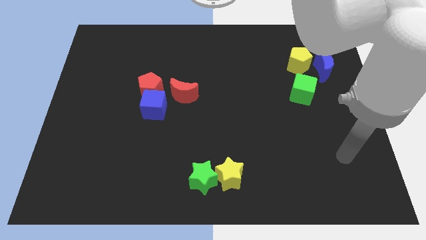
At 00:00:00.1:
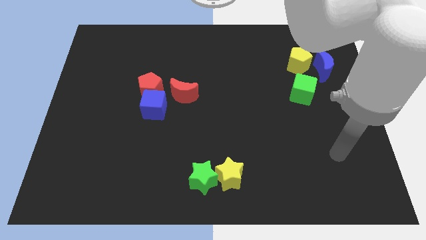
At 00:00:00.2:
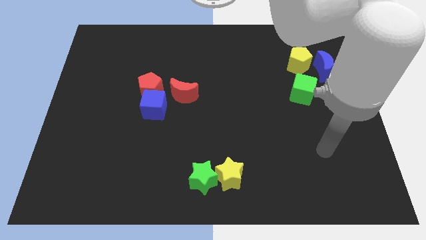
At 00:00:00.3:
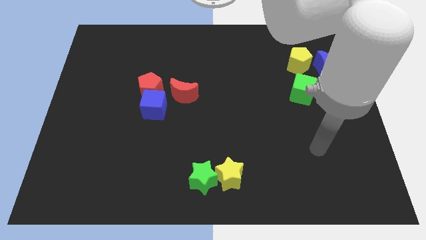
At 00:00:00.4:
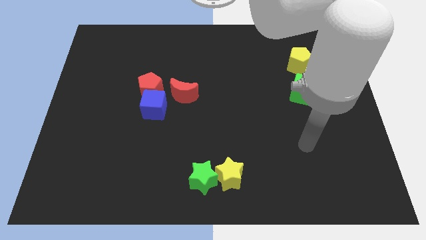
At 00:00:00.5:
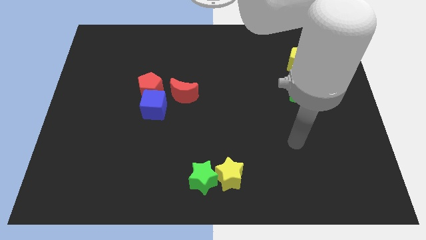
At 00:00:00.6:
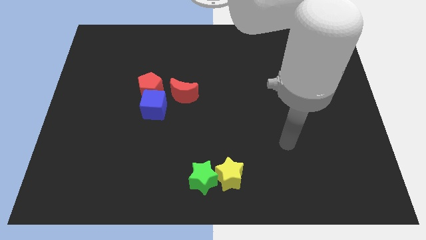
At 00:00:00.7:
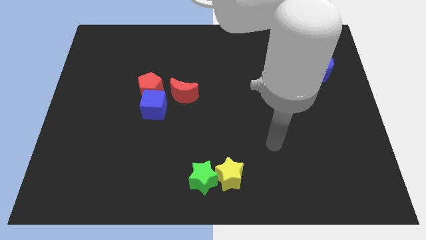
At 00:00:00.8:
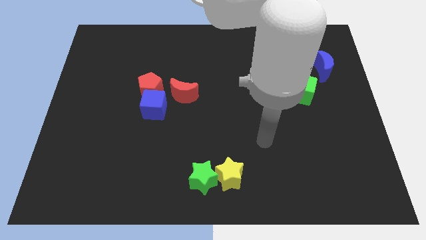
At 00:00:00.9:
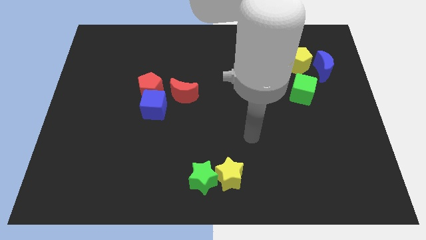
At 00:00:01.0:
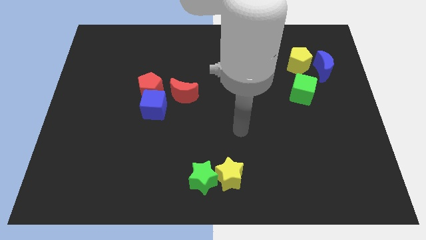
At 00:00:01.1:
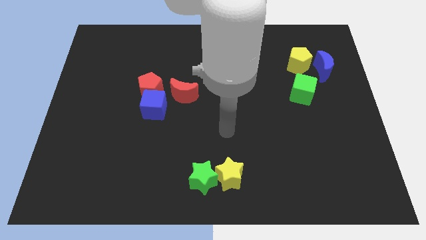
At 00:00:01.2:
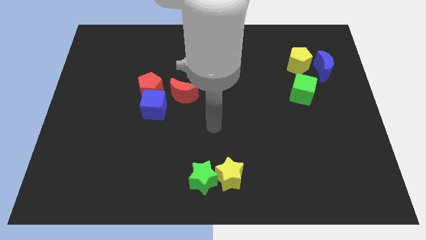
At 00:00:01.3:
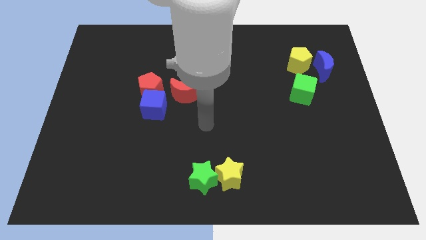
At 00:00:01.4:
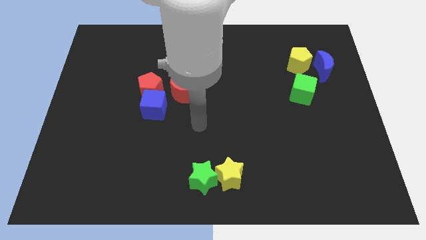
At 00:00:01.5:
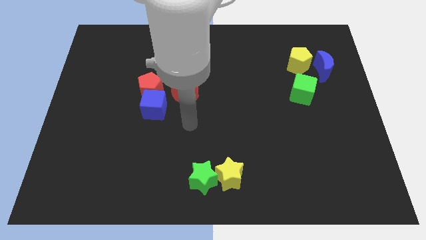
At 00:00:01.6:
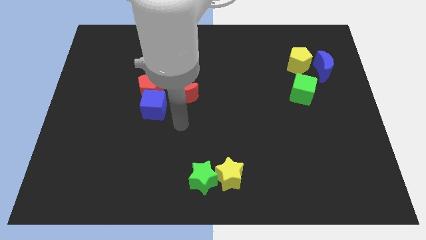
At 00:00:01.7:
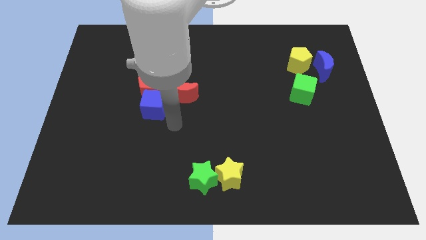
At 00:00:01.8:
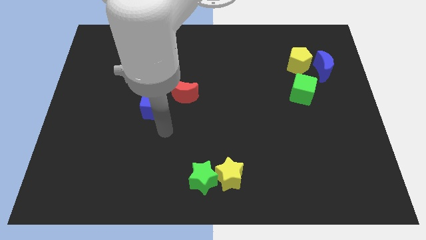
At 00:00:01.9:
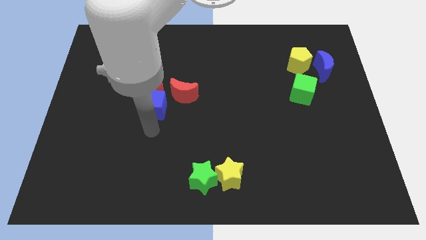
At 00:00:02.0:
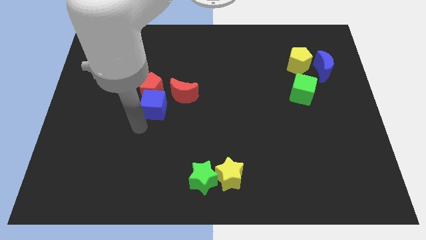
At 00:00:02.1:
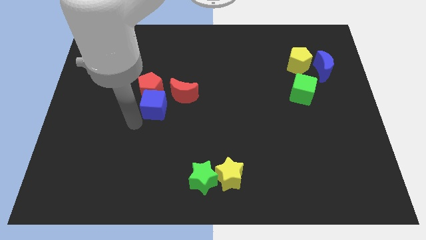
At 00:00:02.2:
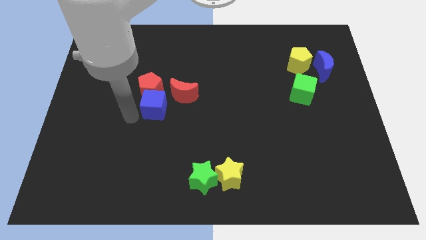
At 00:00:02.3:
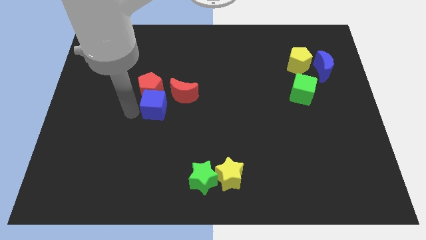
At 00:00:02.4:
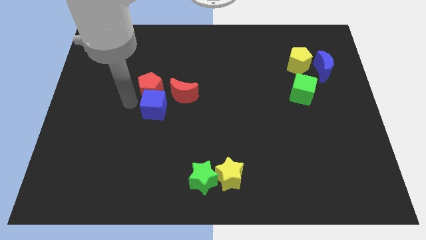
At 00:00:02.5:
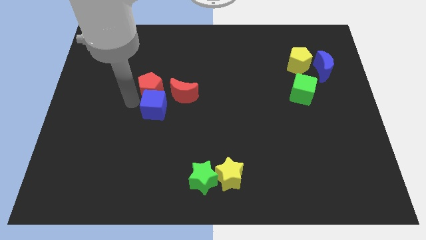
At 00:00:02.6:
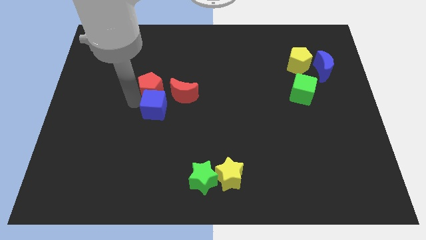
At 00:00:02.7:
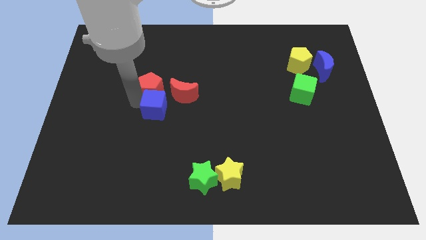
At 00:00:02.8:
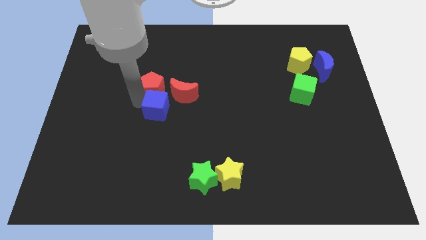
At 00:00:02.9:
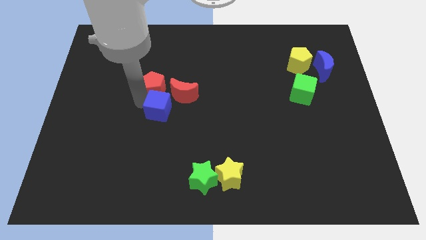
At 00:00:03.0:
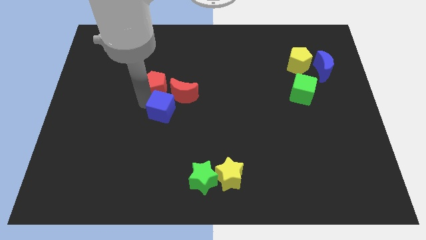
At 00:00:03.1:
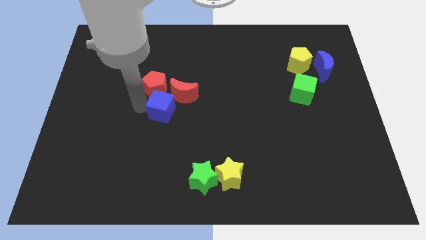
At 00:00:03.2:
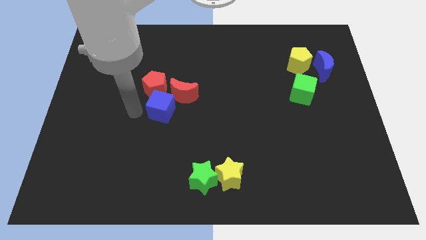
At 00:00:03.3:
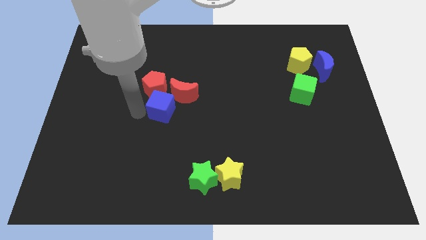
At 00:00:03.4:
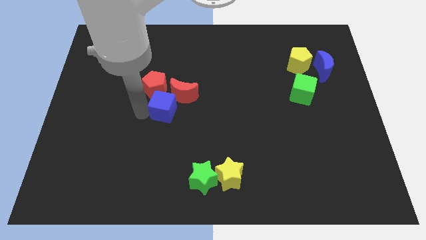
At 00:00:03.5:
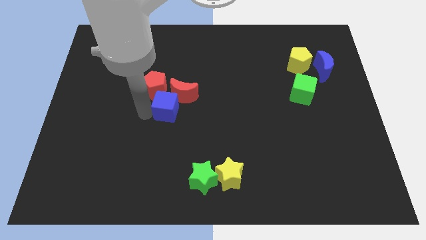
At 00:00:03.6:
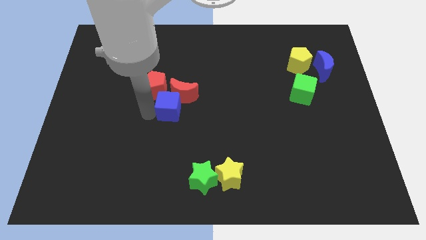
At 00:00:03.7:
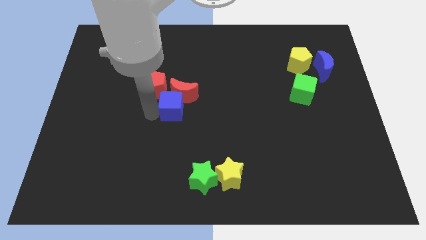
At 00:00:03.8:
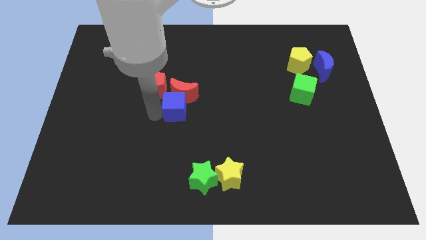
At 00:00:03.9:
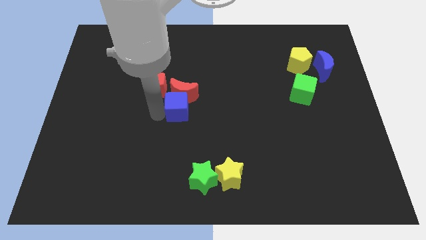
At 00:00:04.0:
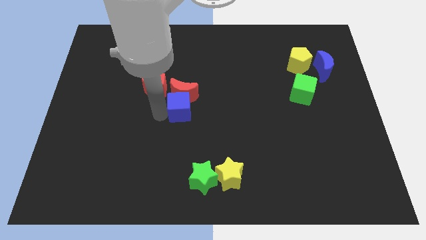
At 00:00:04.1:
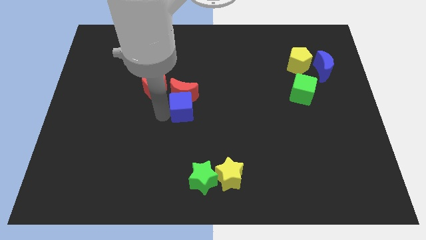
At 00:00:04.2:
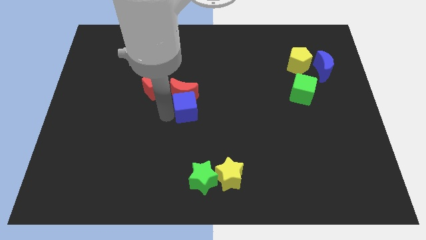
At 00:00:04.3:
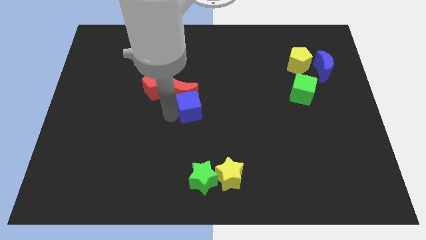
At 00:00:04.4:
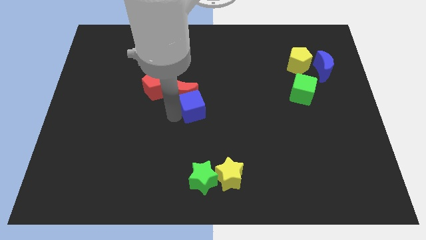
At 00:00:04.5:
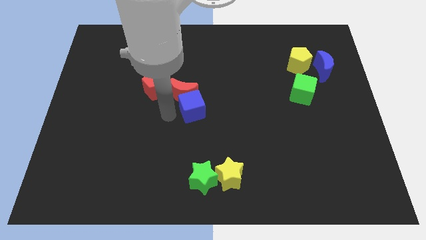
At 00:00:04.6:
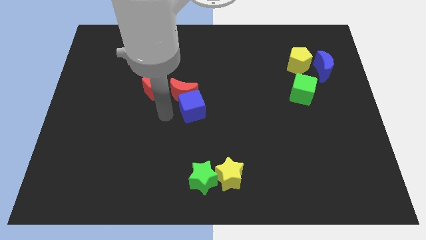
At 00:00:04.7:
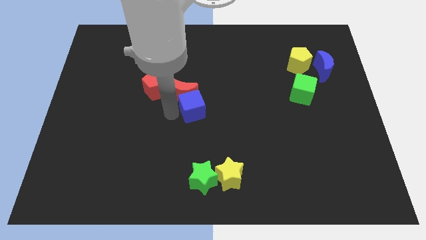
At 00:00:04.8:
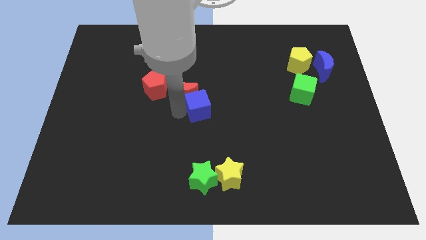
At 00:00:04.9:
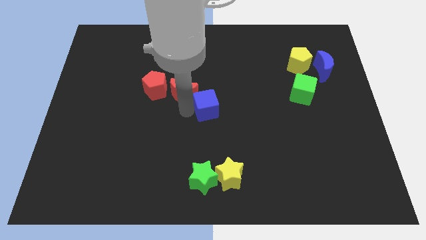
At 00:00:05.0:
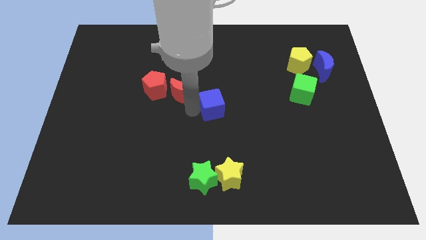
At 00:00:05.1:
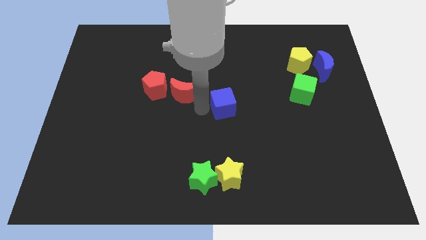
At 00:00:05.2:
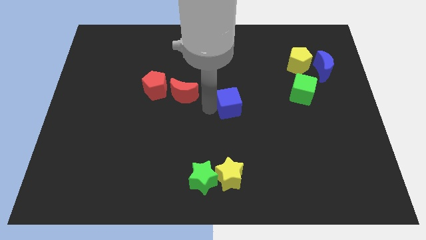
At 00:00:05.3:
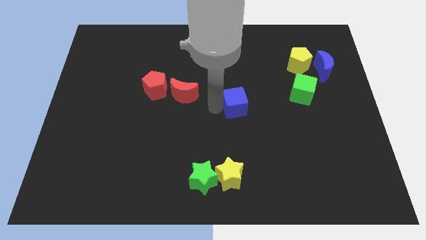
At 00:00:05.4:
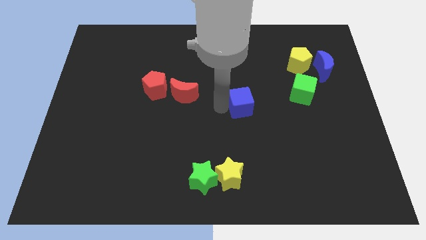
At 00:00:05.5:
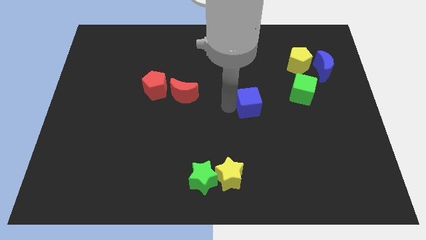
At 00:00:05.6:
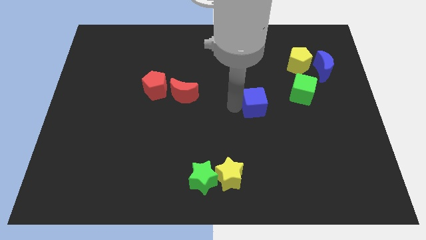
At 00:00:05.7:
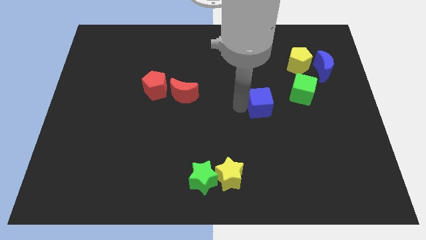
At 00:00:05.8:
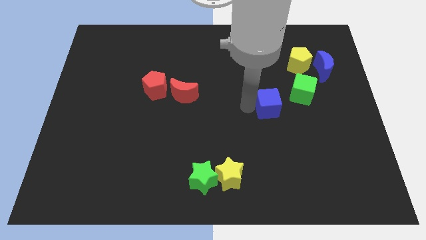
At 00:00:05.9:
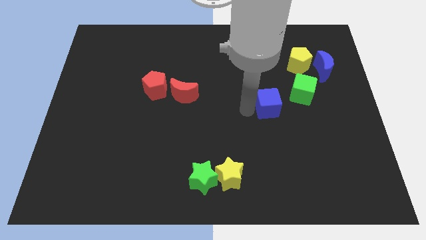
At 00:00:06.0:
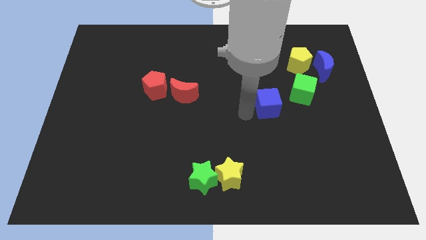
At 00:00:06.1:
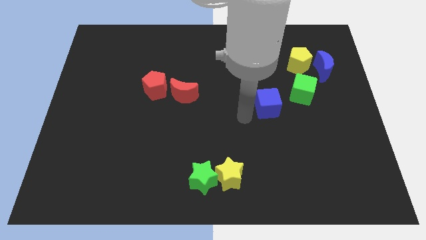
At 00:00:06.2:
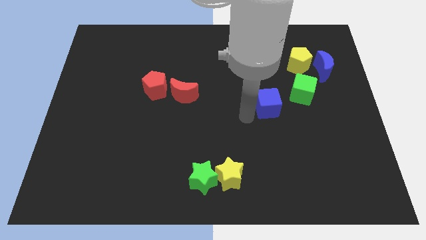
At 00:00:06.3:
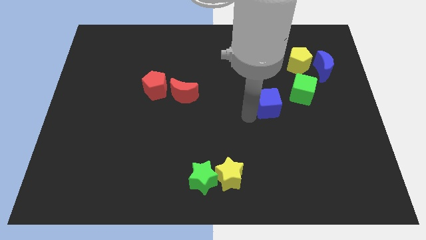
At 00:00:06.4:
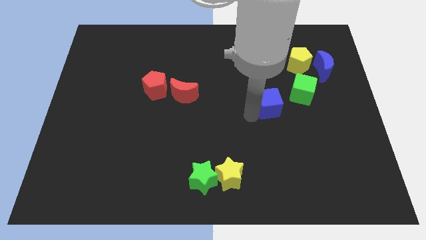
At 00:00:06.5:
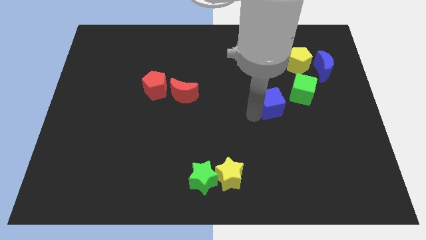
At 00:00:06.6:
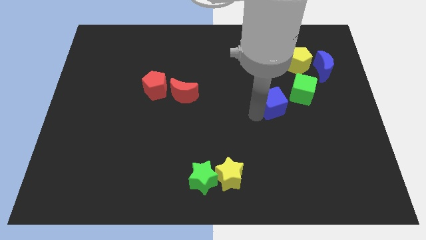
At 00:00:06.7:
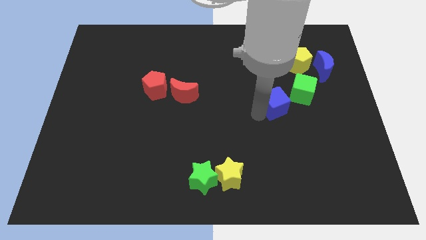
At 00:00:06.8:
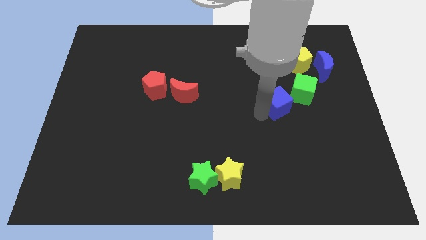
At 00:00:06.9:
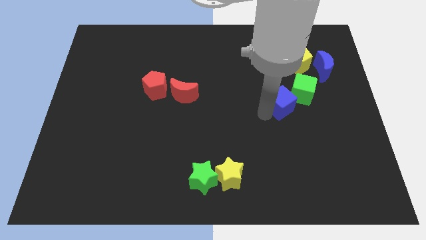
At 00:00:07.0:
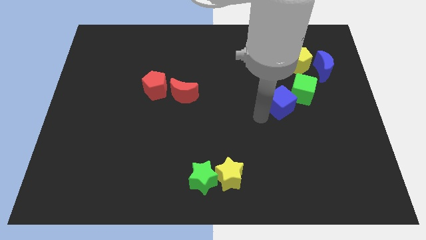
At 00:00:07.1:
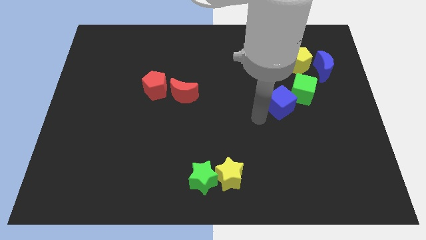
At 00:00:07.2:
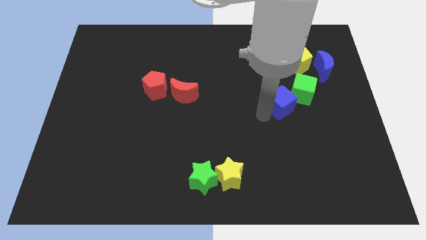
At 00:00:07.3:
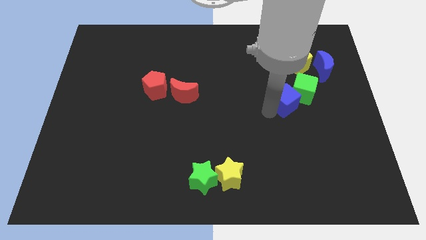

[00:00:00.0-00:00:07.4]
put the blue cube close to the green cube
